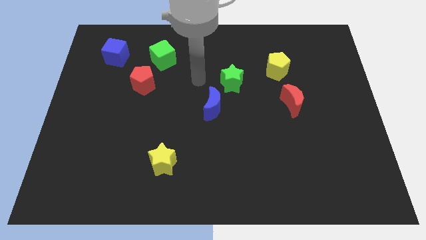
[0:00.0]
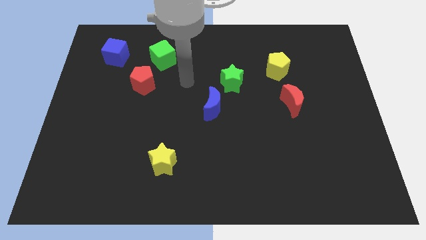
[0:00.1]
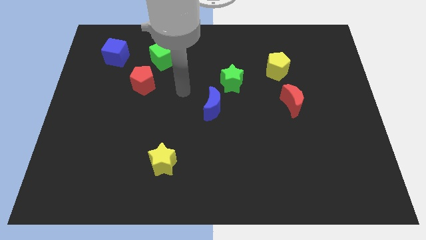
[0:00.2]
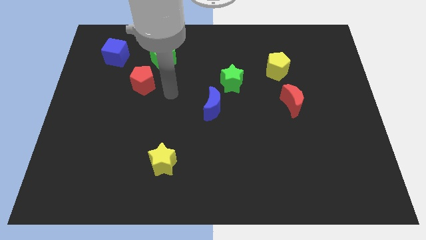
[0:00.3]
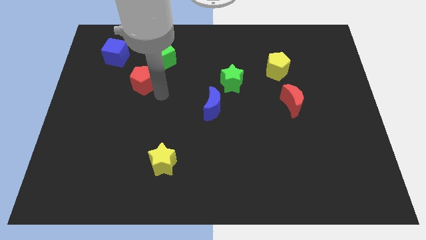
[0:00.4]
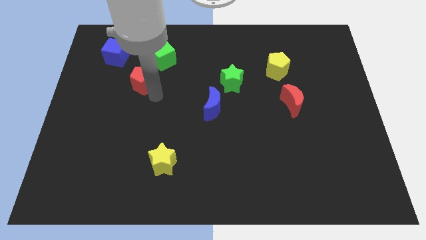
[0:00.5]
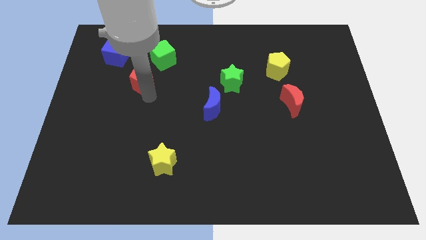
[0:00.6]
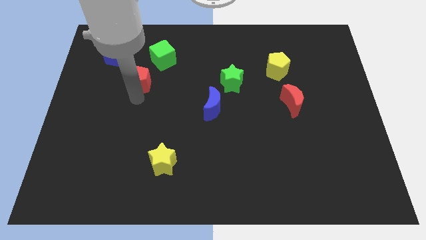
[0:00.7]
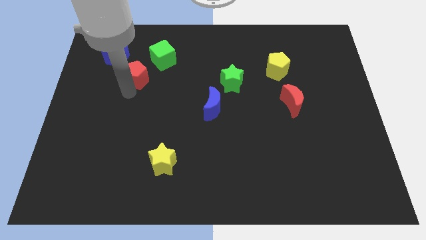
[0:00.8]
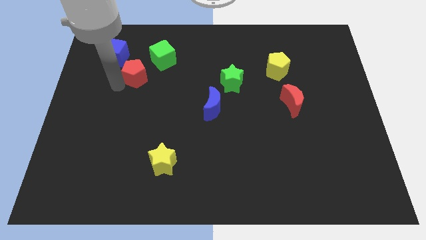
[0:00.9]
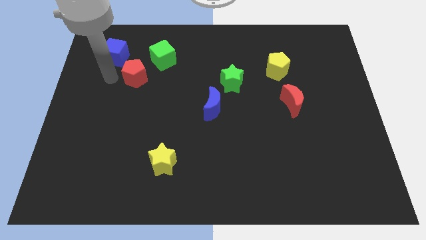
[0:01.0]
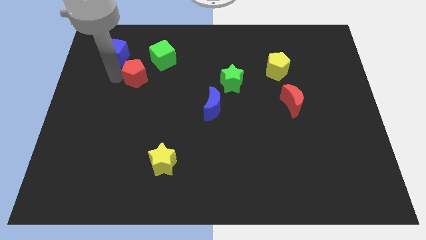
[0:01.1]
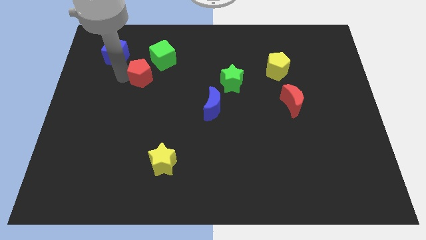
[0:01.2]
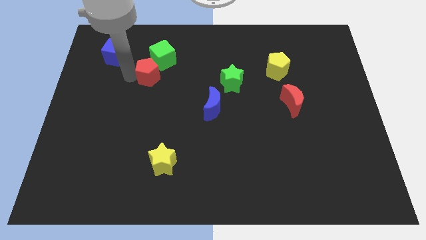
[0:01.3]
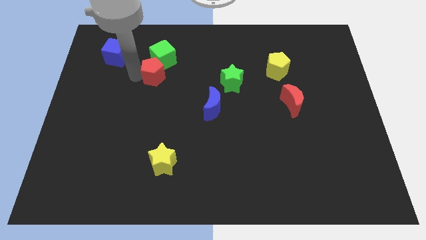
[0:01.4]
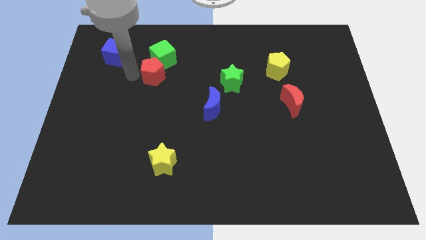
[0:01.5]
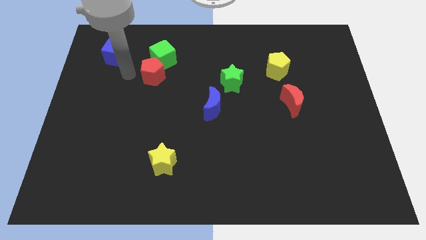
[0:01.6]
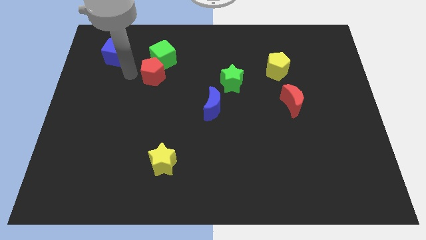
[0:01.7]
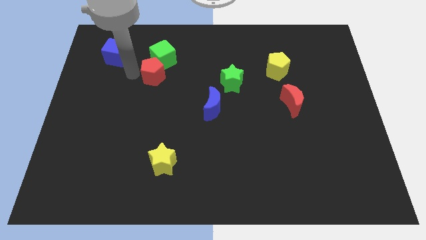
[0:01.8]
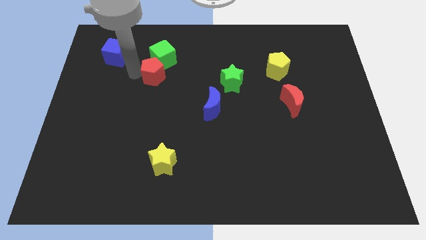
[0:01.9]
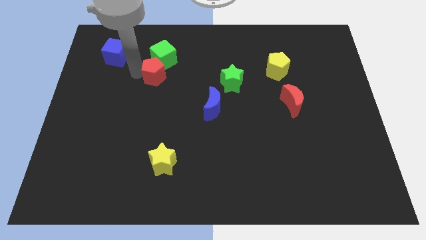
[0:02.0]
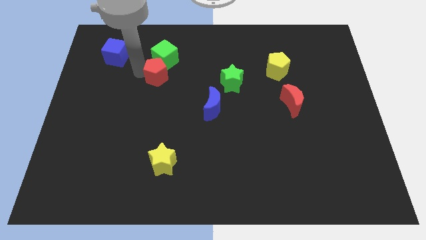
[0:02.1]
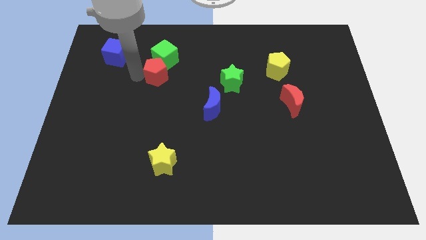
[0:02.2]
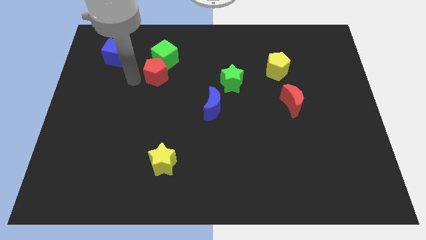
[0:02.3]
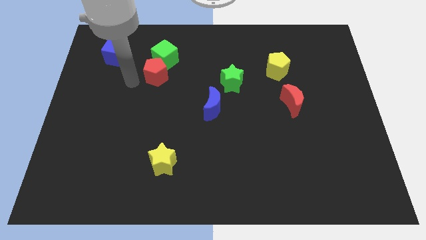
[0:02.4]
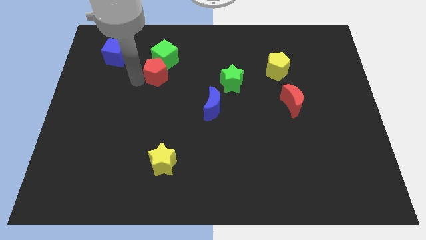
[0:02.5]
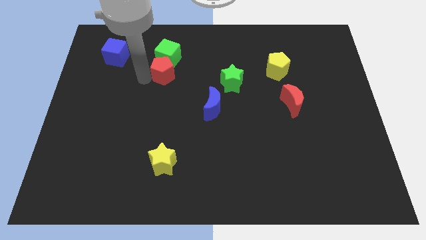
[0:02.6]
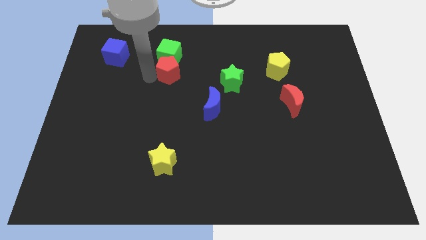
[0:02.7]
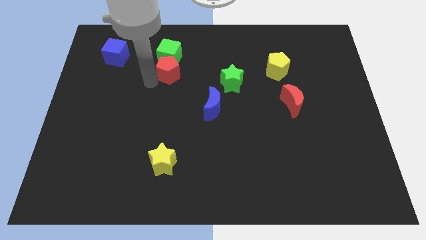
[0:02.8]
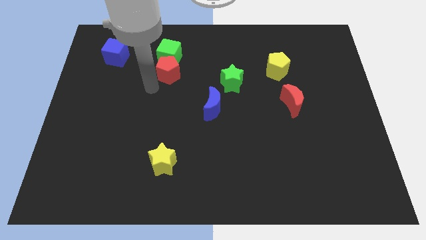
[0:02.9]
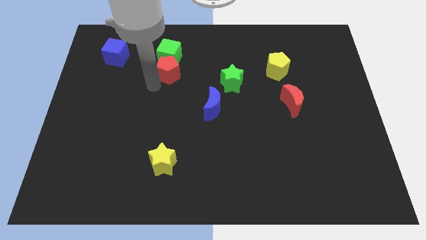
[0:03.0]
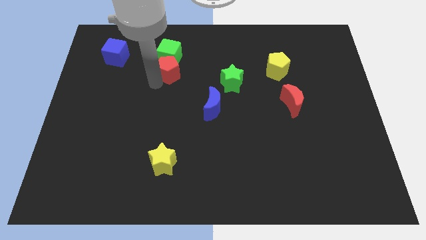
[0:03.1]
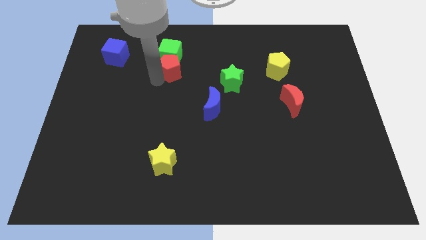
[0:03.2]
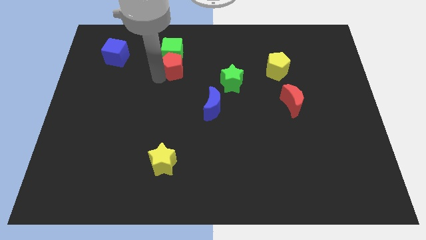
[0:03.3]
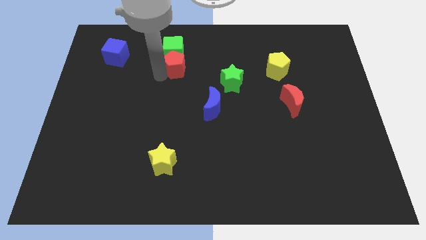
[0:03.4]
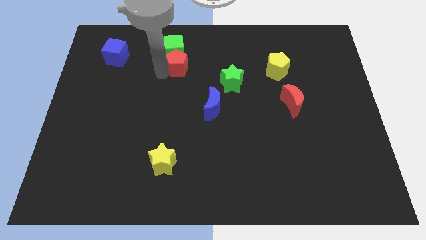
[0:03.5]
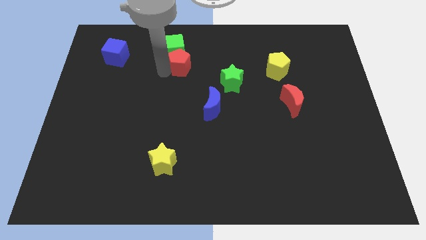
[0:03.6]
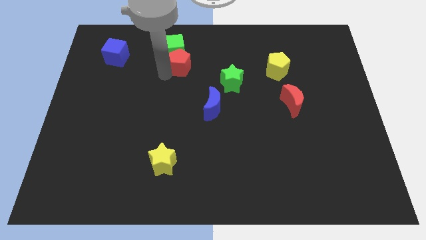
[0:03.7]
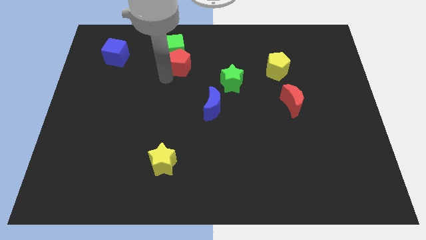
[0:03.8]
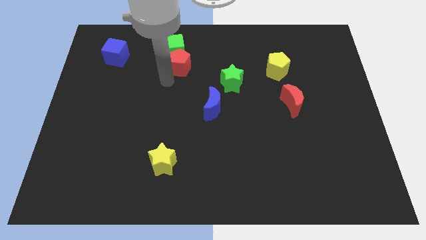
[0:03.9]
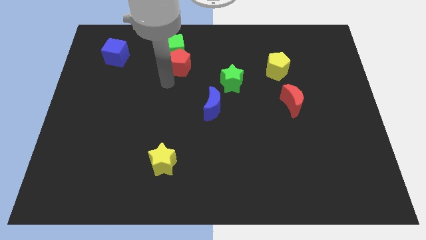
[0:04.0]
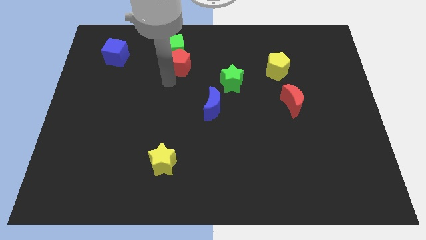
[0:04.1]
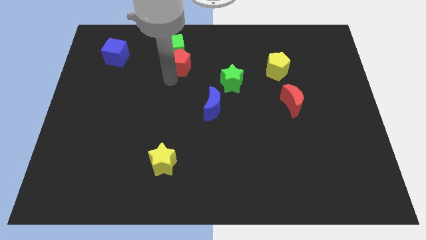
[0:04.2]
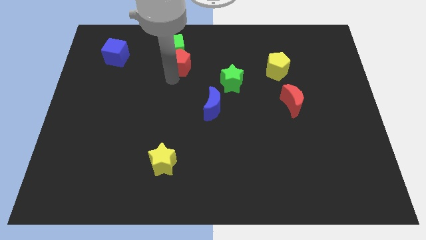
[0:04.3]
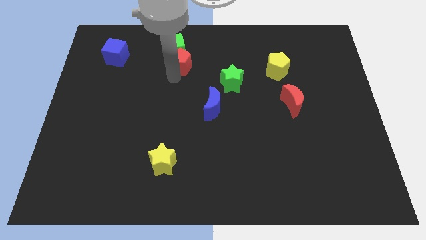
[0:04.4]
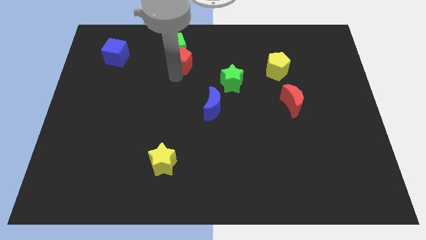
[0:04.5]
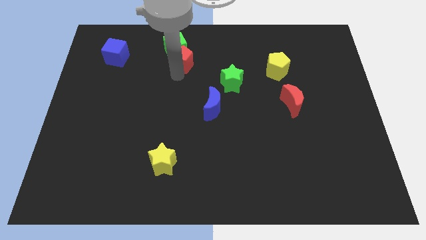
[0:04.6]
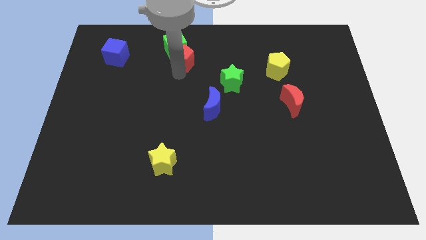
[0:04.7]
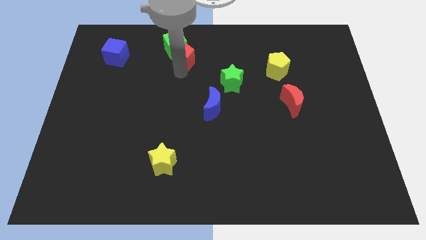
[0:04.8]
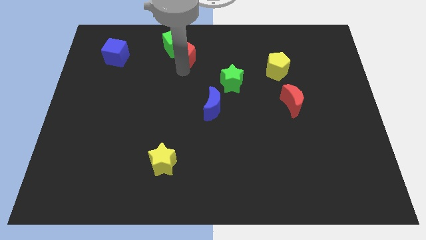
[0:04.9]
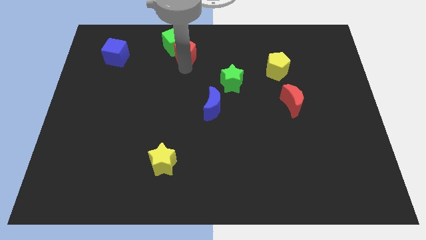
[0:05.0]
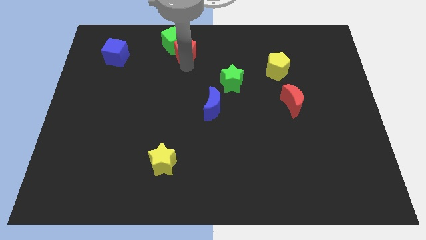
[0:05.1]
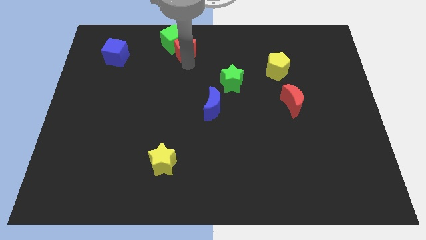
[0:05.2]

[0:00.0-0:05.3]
push the red pentagon to the towards your base

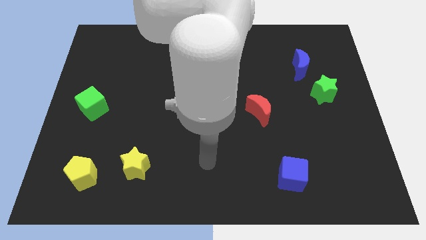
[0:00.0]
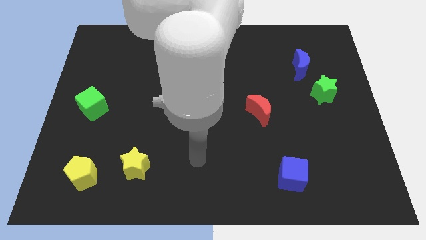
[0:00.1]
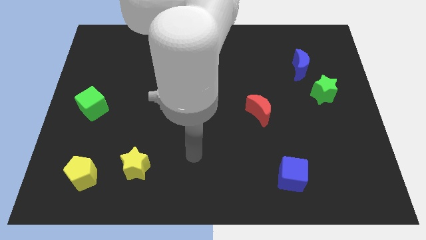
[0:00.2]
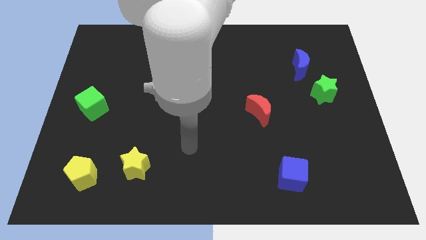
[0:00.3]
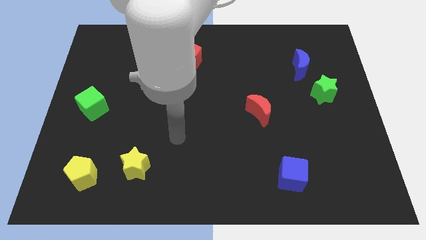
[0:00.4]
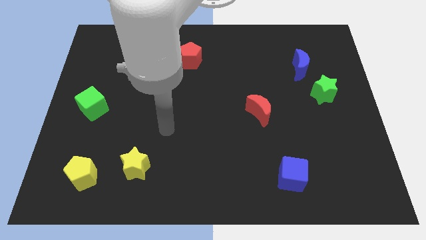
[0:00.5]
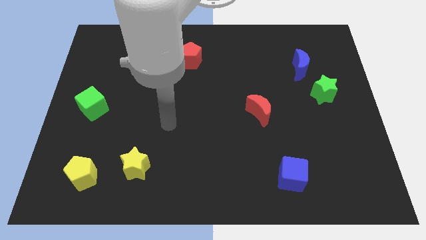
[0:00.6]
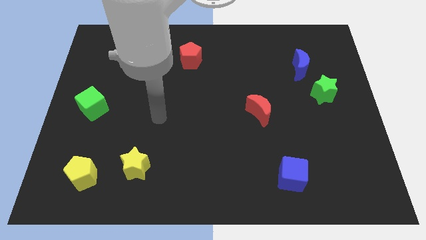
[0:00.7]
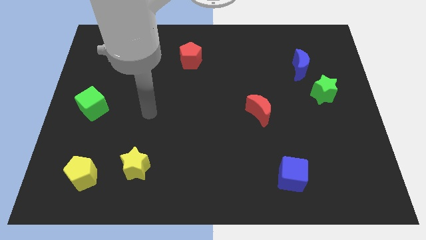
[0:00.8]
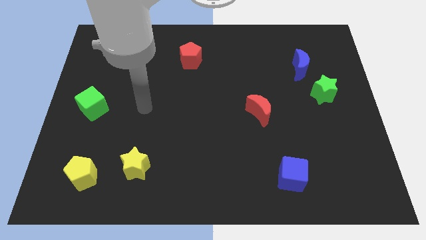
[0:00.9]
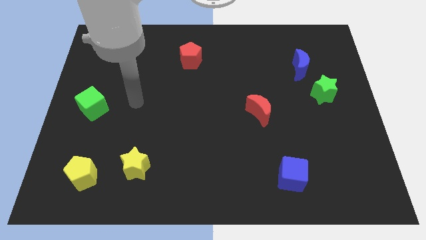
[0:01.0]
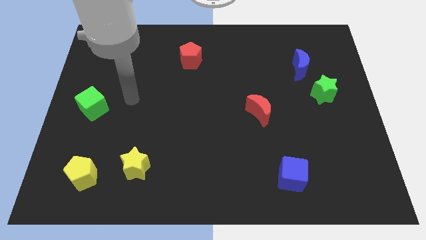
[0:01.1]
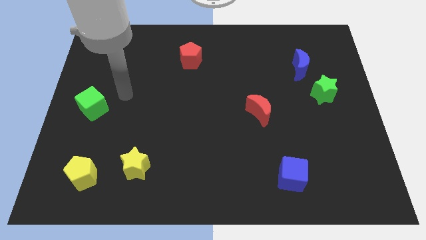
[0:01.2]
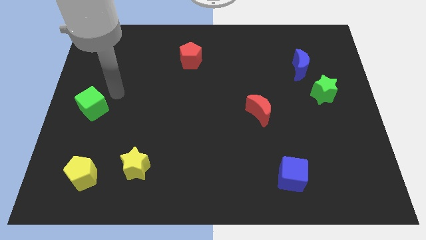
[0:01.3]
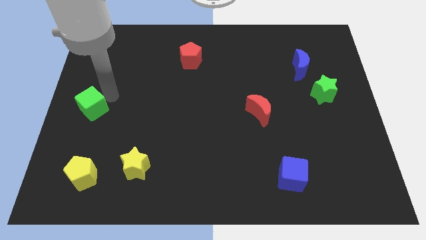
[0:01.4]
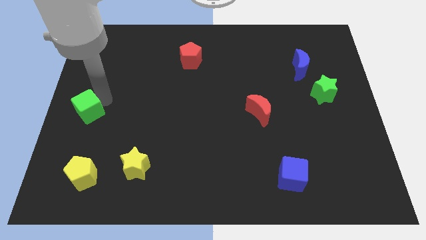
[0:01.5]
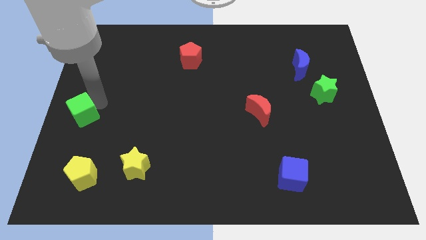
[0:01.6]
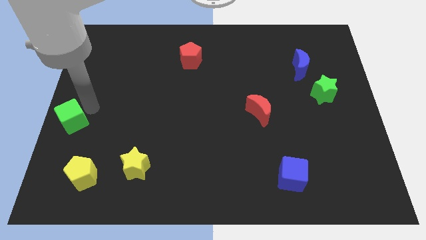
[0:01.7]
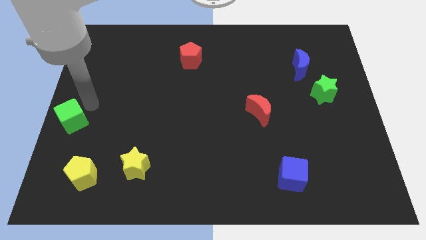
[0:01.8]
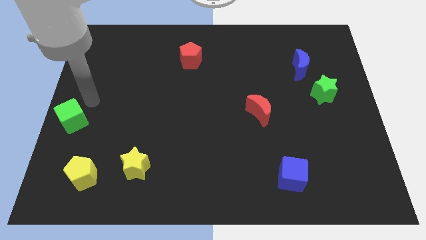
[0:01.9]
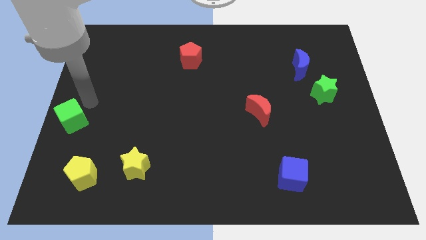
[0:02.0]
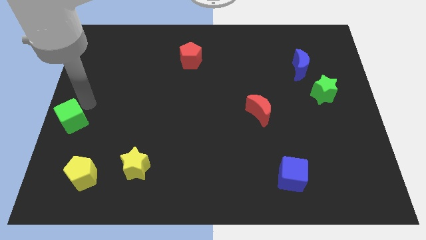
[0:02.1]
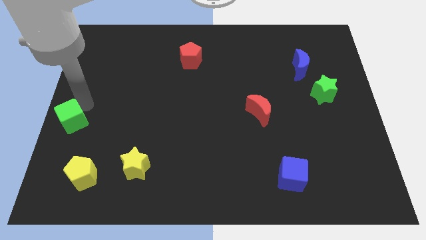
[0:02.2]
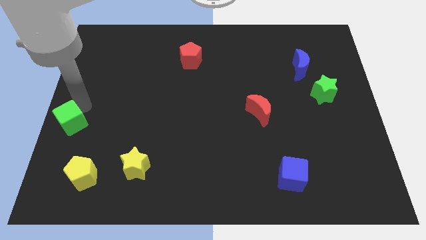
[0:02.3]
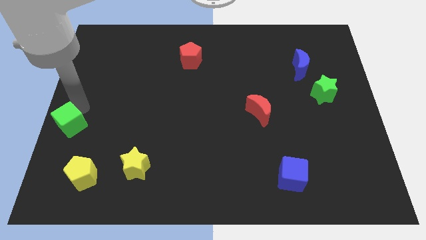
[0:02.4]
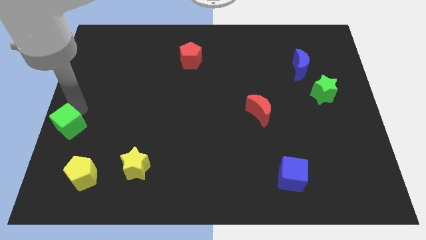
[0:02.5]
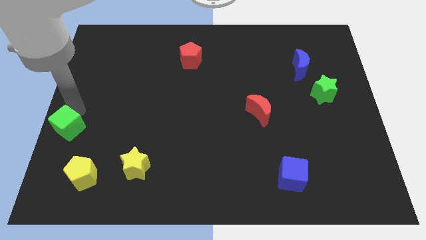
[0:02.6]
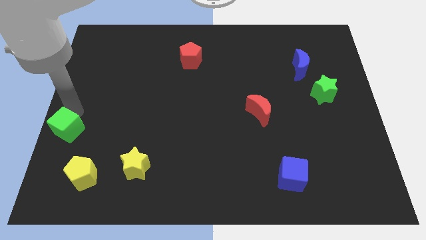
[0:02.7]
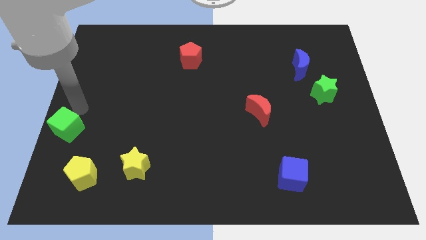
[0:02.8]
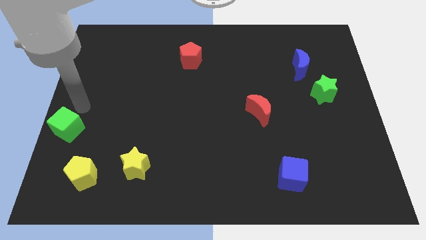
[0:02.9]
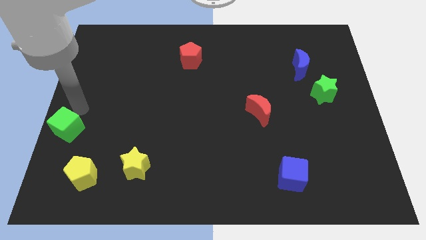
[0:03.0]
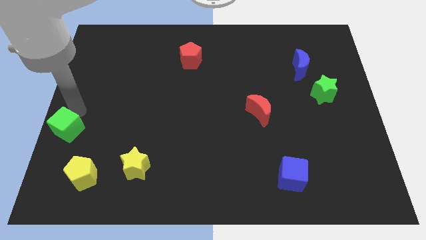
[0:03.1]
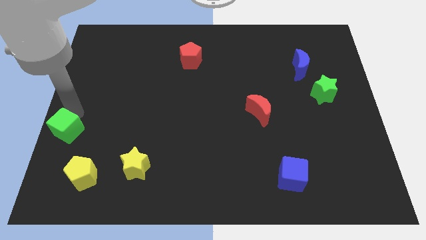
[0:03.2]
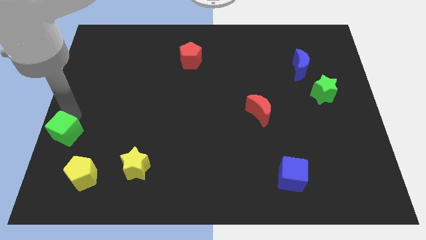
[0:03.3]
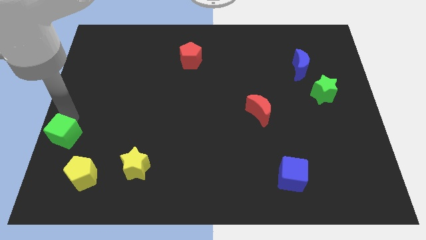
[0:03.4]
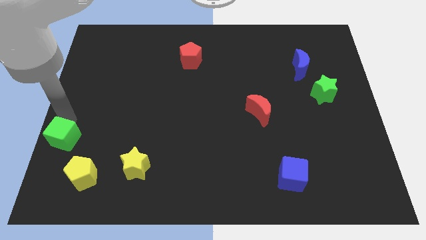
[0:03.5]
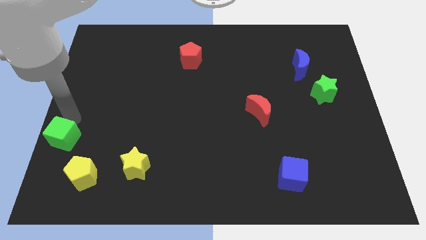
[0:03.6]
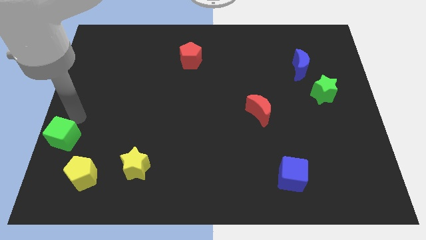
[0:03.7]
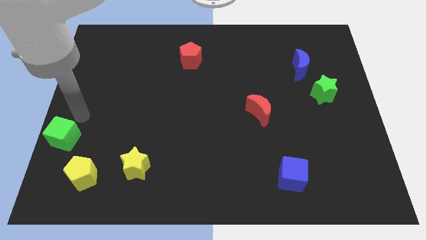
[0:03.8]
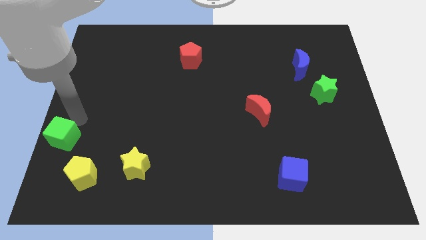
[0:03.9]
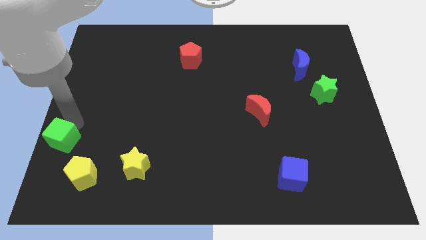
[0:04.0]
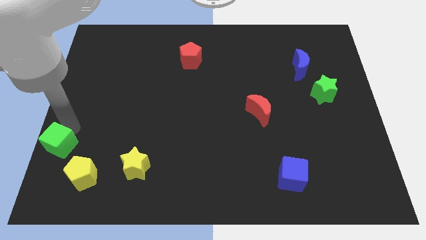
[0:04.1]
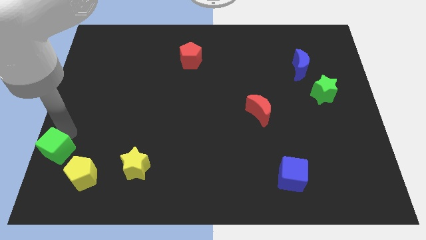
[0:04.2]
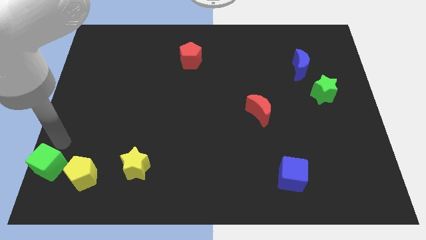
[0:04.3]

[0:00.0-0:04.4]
move the green cube to the lower left corner
